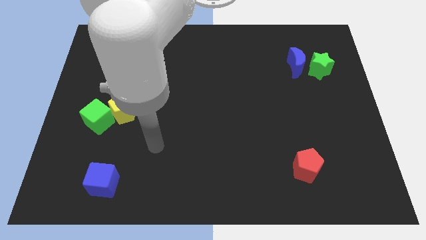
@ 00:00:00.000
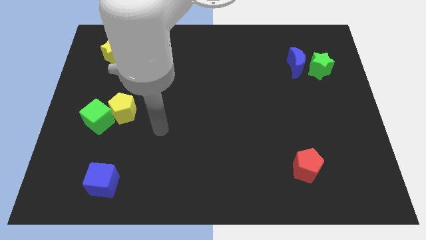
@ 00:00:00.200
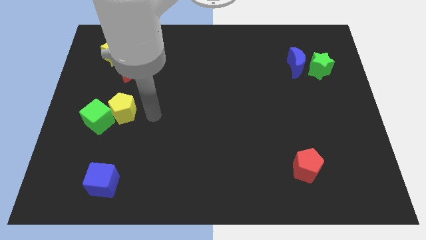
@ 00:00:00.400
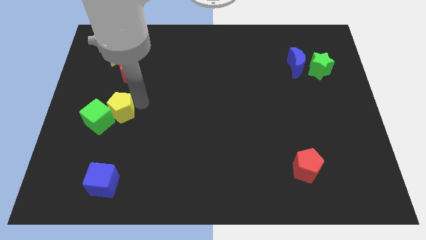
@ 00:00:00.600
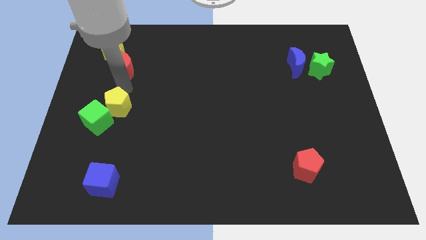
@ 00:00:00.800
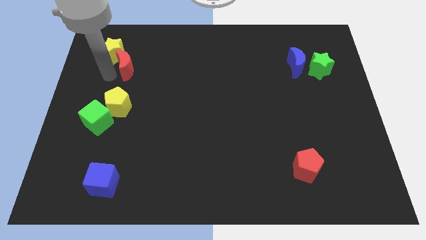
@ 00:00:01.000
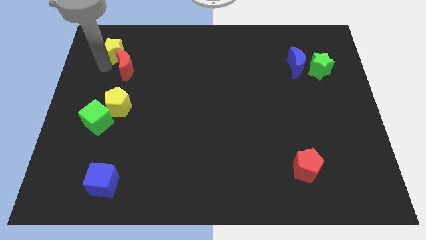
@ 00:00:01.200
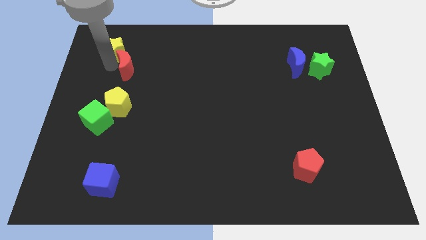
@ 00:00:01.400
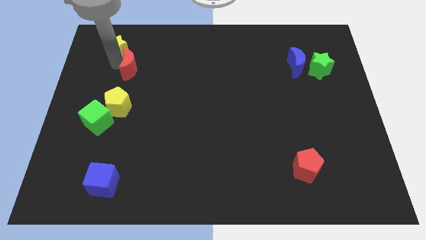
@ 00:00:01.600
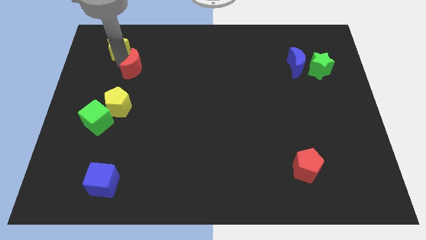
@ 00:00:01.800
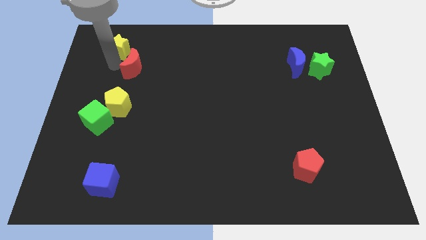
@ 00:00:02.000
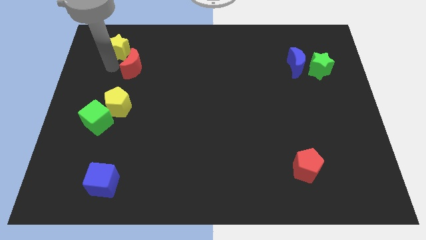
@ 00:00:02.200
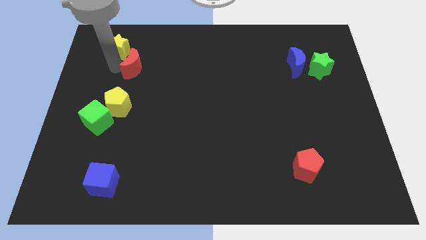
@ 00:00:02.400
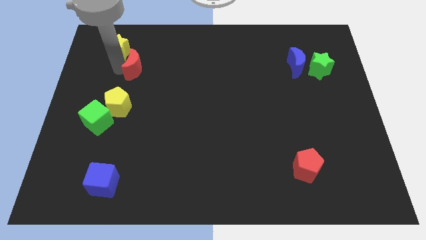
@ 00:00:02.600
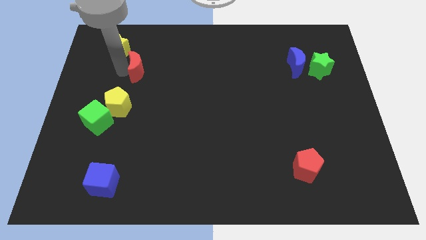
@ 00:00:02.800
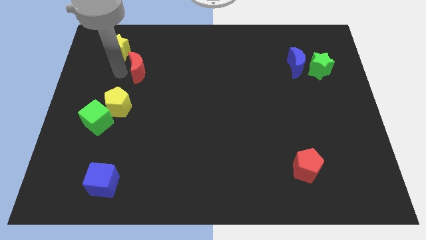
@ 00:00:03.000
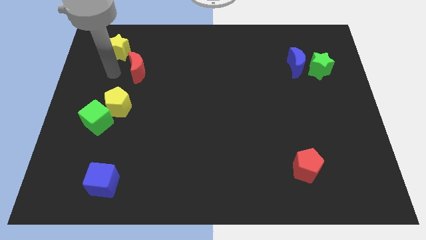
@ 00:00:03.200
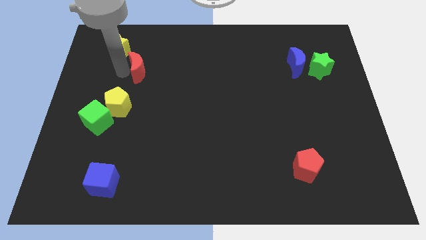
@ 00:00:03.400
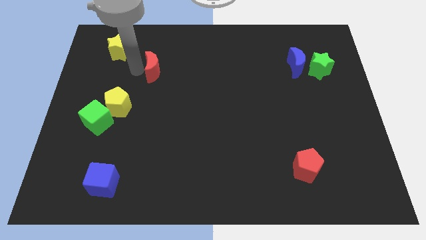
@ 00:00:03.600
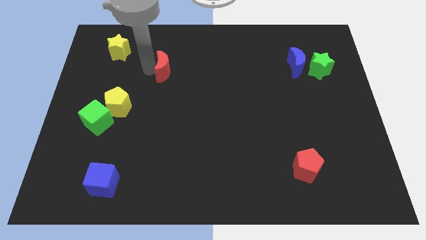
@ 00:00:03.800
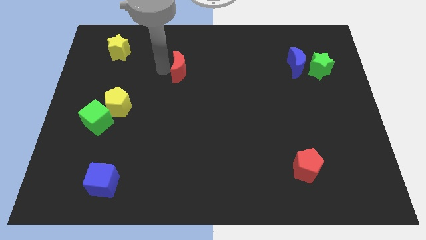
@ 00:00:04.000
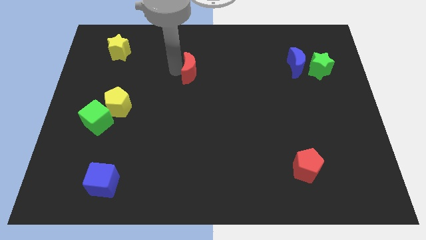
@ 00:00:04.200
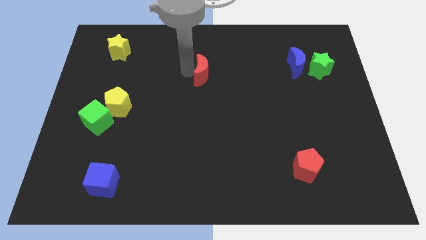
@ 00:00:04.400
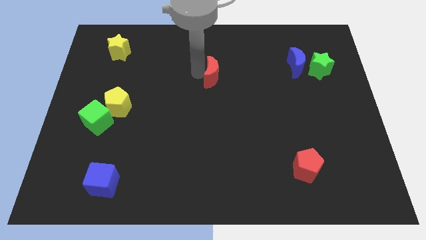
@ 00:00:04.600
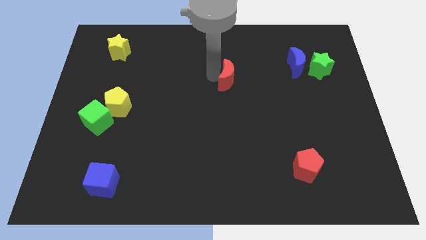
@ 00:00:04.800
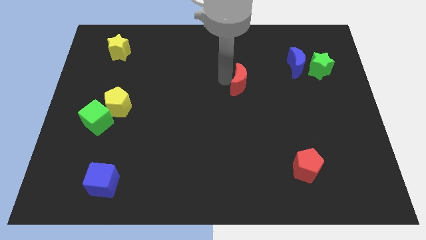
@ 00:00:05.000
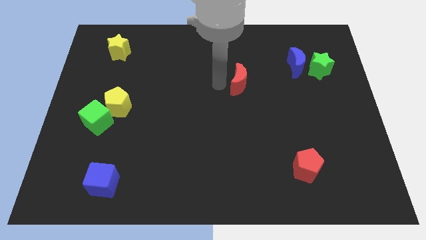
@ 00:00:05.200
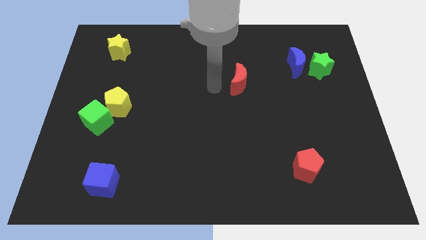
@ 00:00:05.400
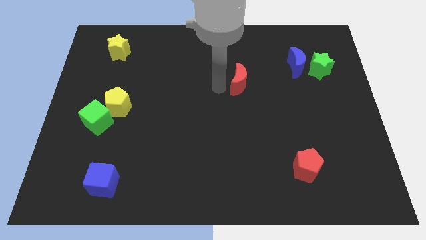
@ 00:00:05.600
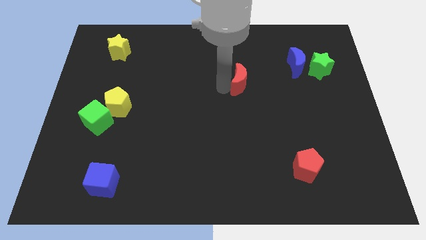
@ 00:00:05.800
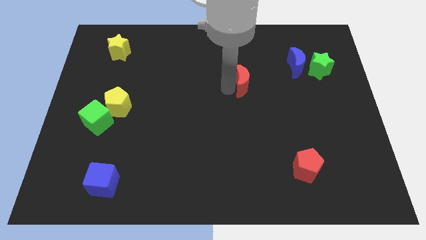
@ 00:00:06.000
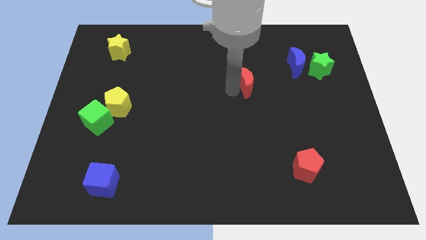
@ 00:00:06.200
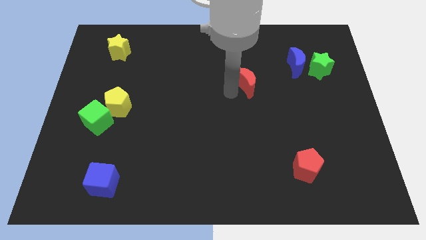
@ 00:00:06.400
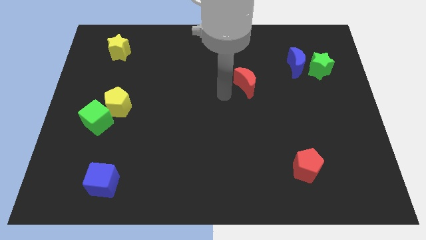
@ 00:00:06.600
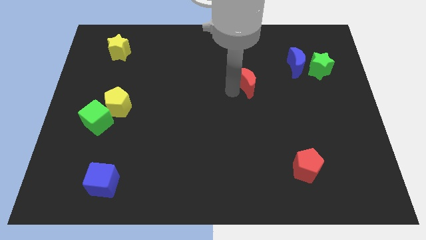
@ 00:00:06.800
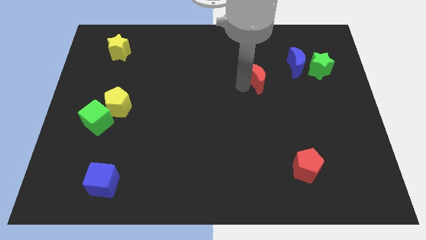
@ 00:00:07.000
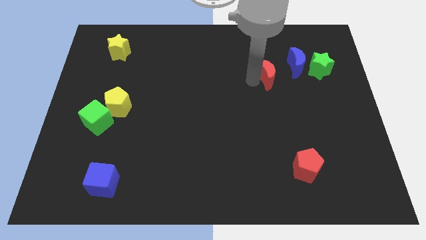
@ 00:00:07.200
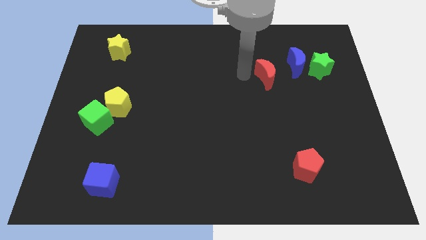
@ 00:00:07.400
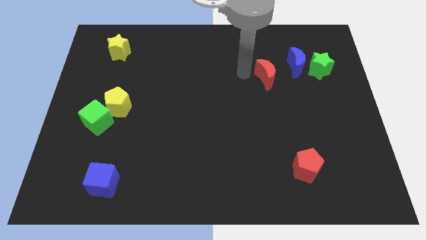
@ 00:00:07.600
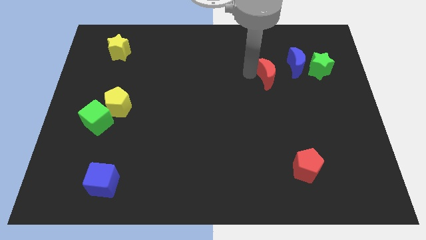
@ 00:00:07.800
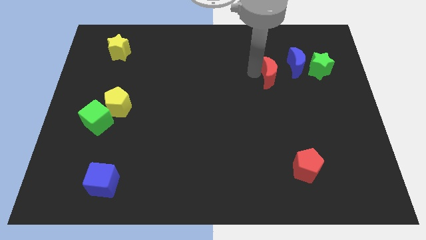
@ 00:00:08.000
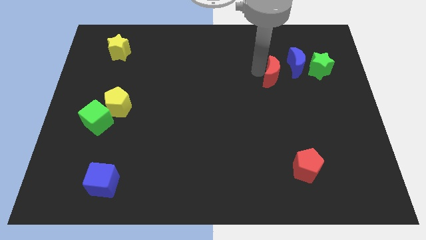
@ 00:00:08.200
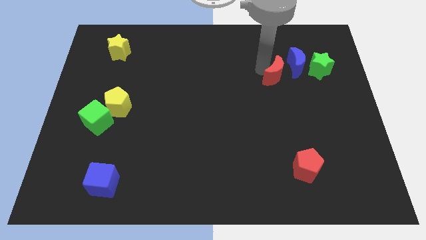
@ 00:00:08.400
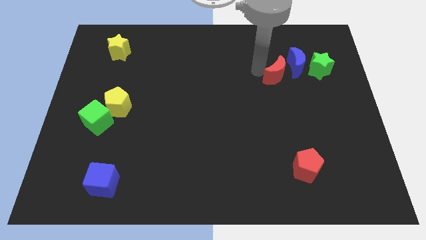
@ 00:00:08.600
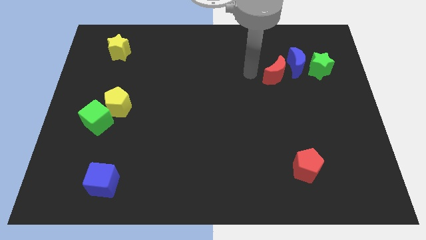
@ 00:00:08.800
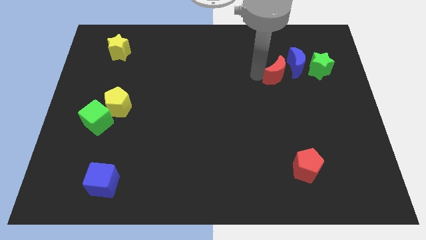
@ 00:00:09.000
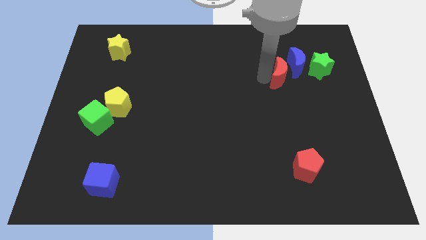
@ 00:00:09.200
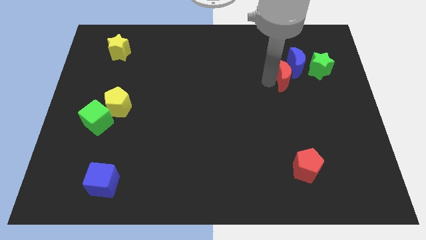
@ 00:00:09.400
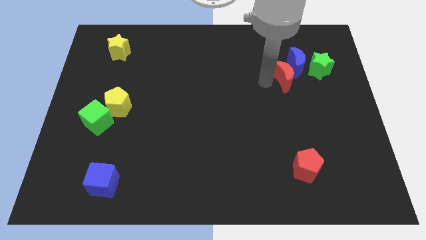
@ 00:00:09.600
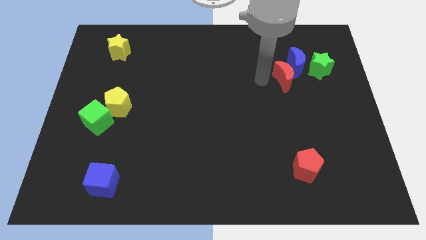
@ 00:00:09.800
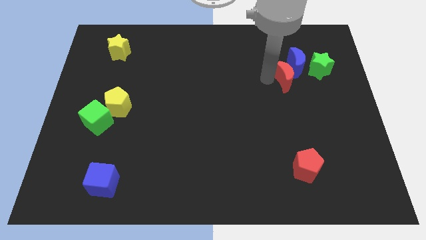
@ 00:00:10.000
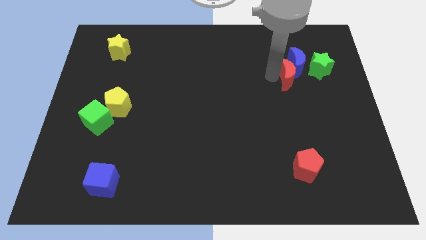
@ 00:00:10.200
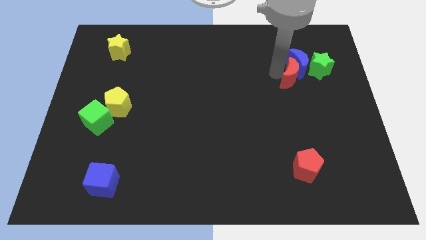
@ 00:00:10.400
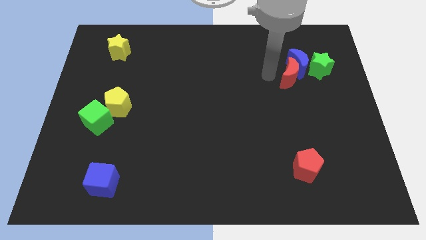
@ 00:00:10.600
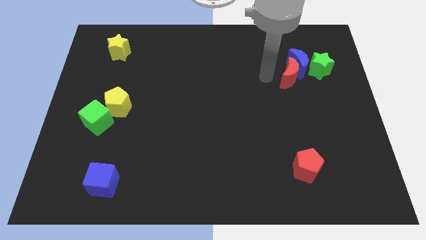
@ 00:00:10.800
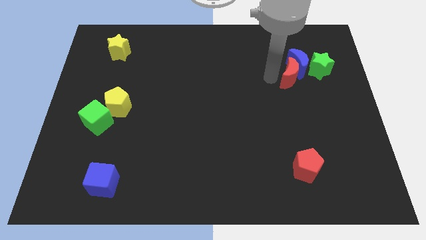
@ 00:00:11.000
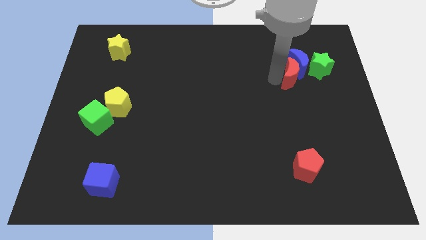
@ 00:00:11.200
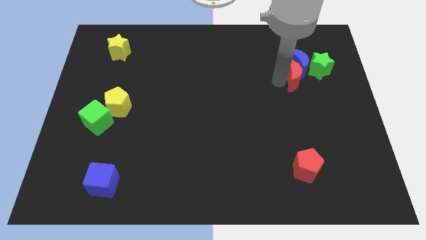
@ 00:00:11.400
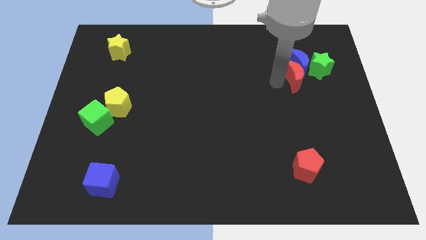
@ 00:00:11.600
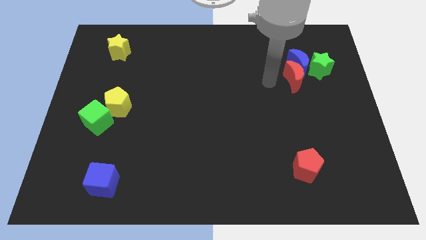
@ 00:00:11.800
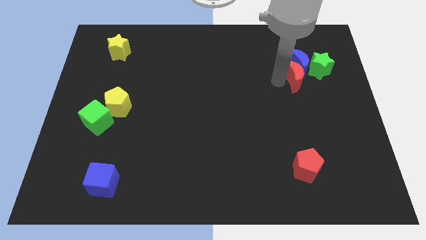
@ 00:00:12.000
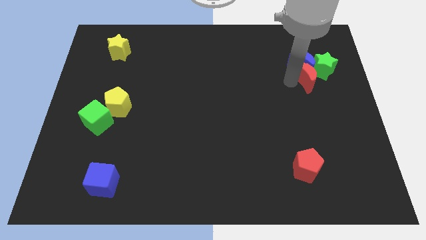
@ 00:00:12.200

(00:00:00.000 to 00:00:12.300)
push the red moon towards the green star

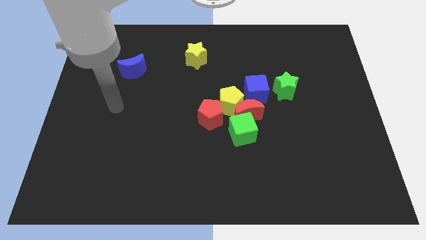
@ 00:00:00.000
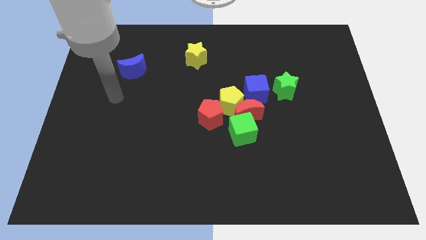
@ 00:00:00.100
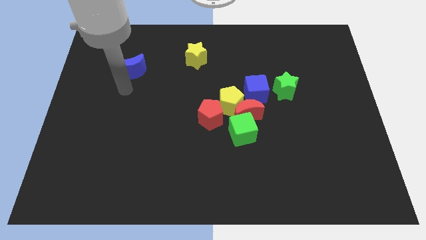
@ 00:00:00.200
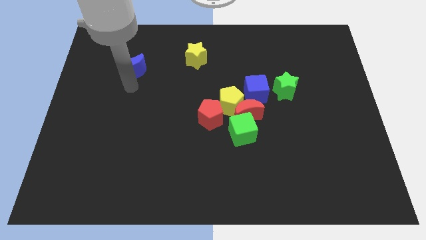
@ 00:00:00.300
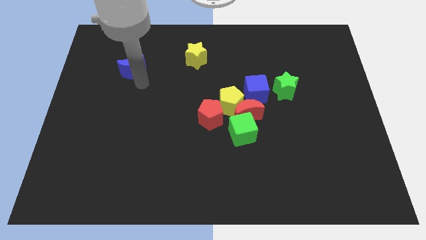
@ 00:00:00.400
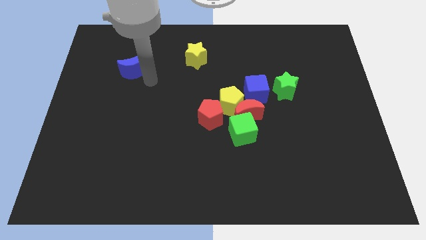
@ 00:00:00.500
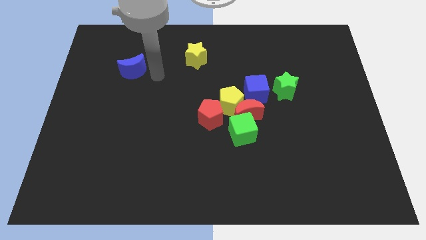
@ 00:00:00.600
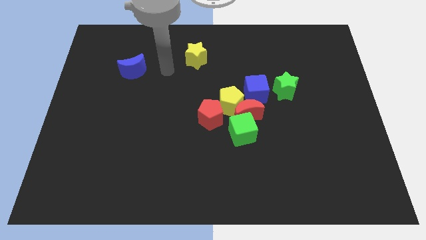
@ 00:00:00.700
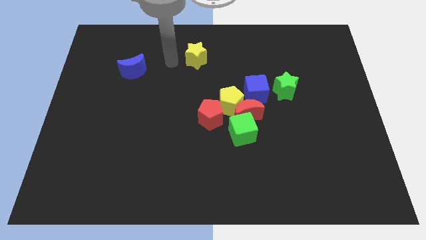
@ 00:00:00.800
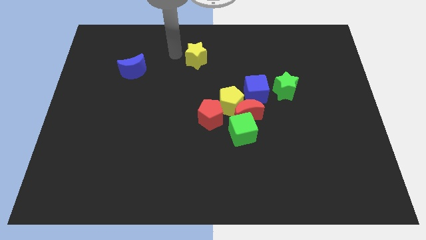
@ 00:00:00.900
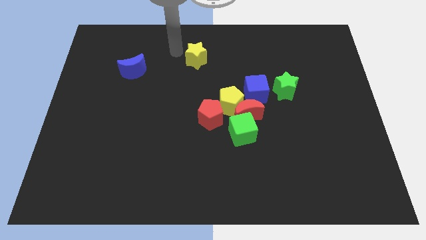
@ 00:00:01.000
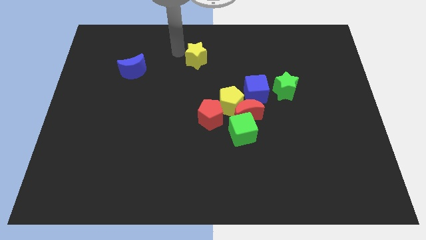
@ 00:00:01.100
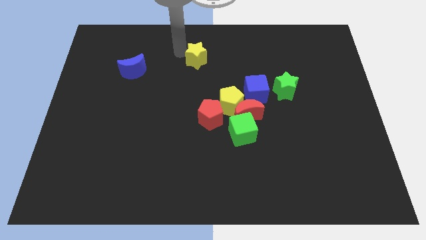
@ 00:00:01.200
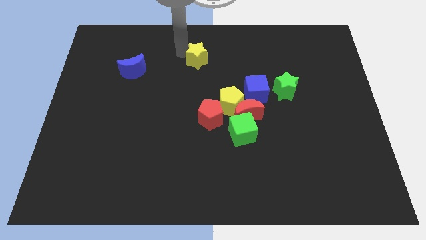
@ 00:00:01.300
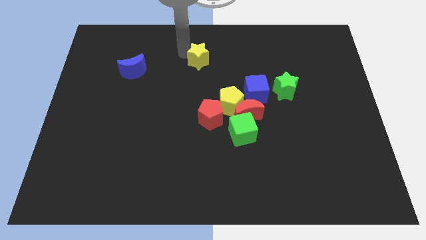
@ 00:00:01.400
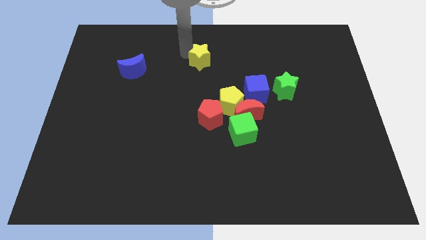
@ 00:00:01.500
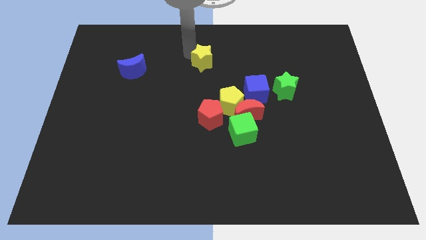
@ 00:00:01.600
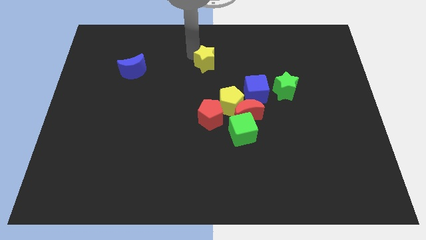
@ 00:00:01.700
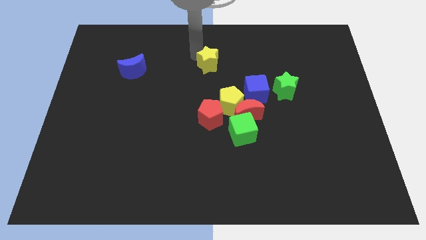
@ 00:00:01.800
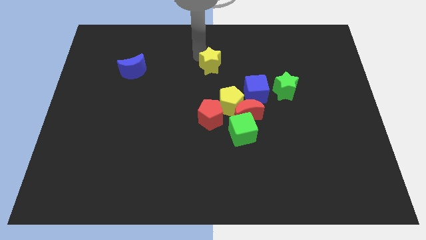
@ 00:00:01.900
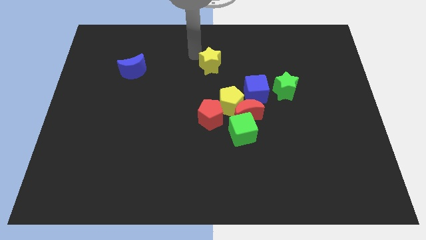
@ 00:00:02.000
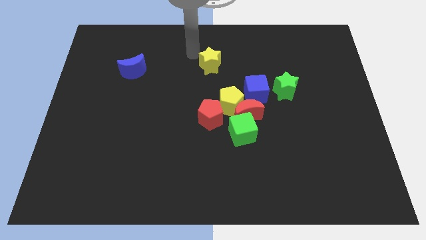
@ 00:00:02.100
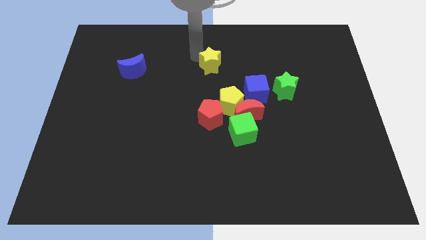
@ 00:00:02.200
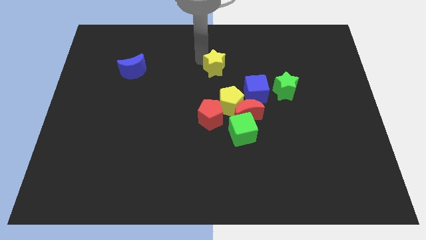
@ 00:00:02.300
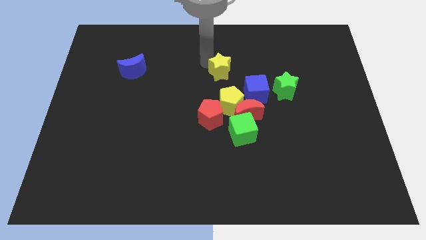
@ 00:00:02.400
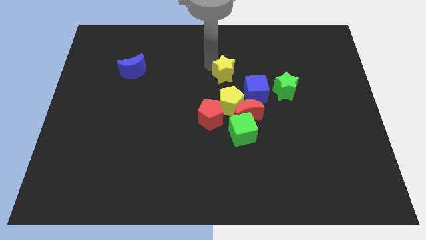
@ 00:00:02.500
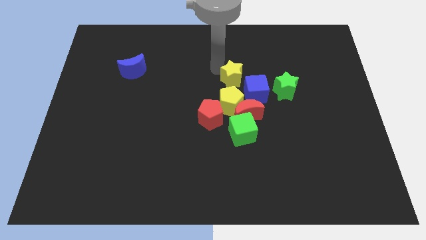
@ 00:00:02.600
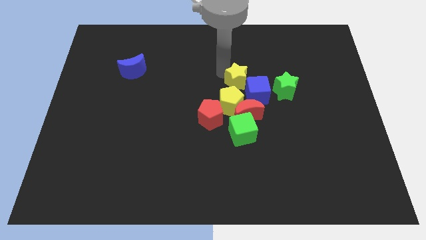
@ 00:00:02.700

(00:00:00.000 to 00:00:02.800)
put the yellow star towards the blue cube
